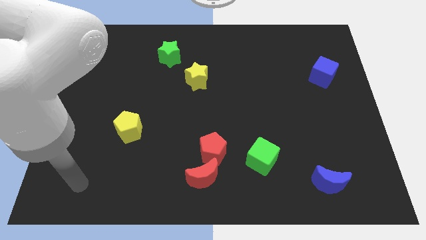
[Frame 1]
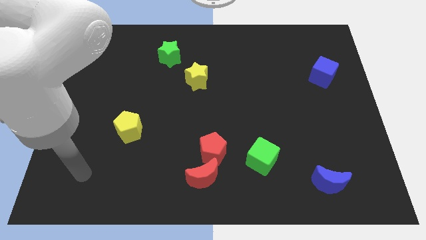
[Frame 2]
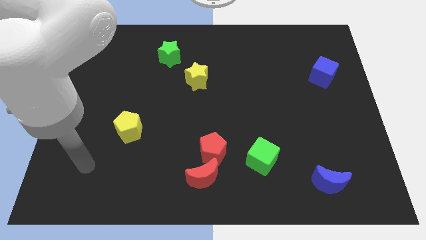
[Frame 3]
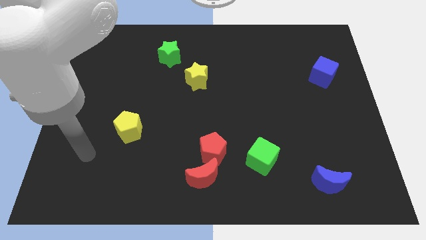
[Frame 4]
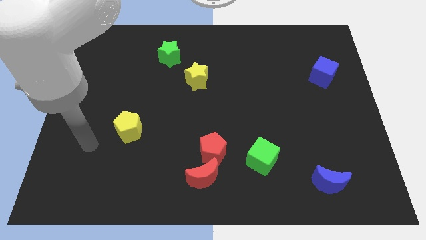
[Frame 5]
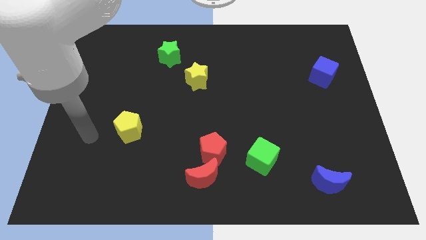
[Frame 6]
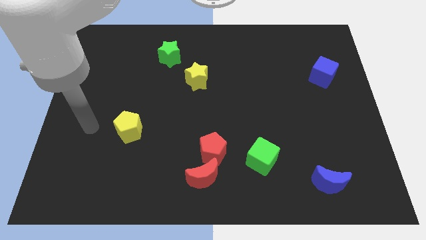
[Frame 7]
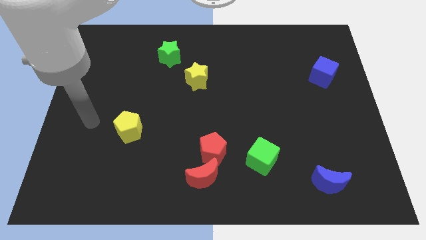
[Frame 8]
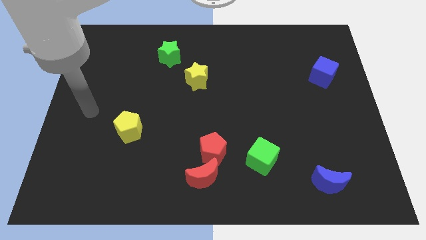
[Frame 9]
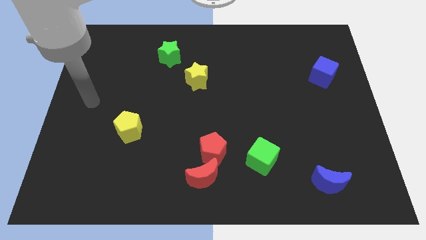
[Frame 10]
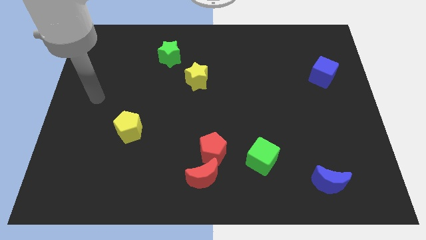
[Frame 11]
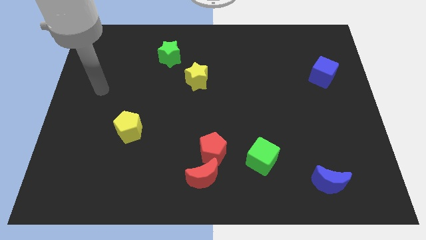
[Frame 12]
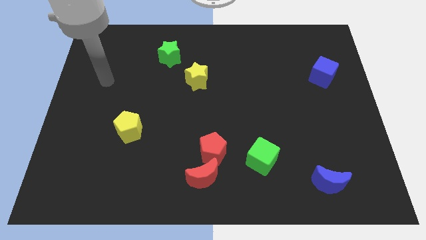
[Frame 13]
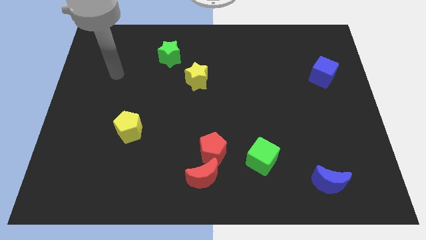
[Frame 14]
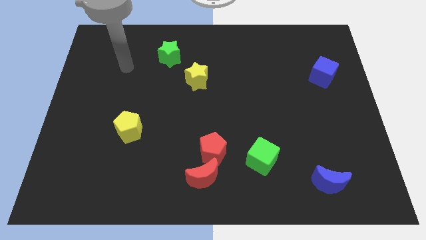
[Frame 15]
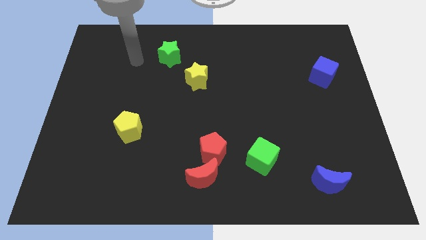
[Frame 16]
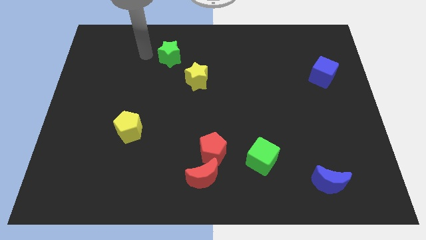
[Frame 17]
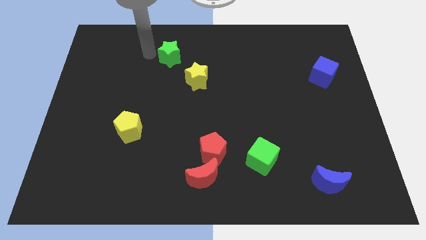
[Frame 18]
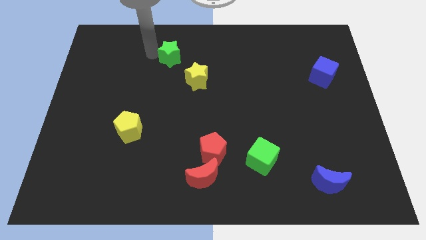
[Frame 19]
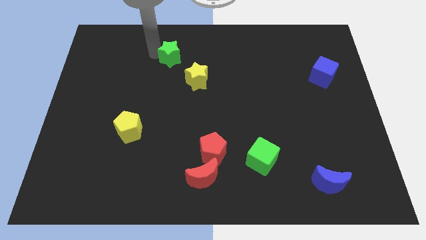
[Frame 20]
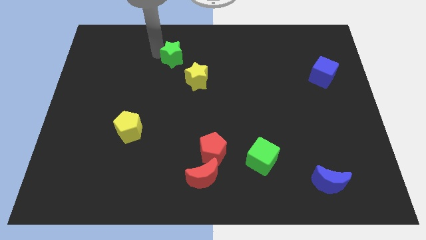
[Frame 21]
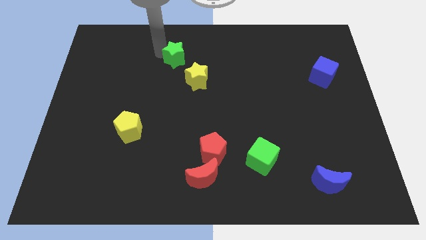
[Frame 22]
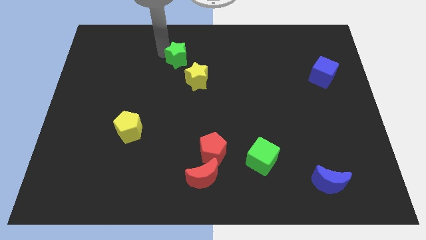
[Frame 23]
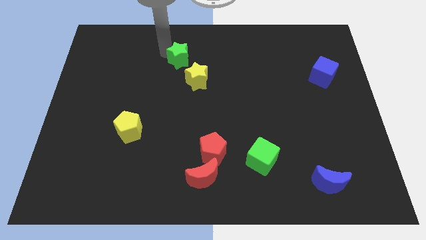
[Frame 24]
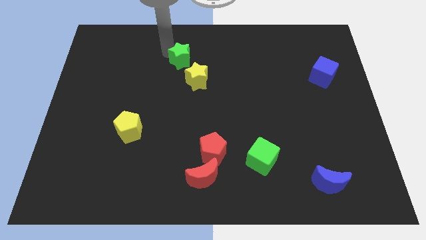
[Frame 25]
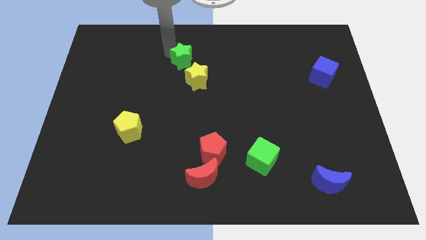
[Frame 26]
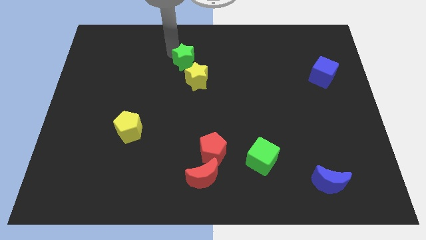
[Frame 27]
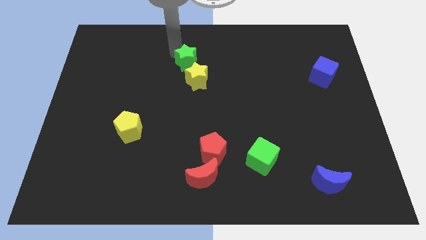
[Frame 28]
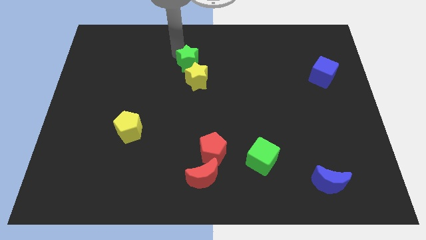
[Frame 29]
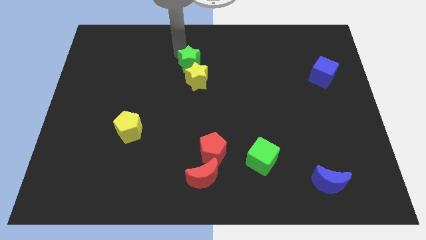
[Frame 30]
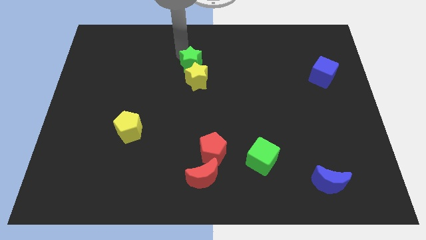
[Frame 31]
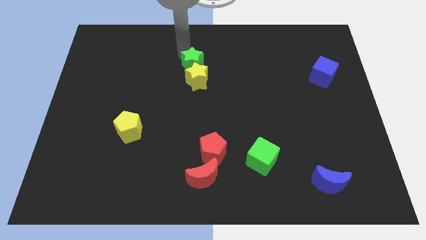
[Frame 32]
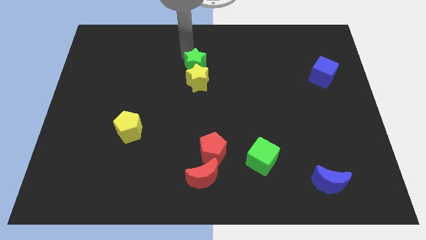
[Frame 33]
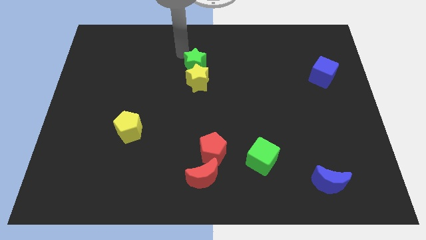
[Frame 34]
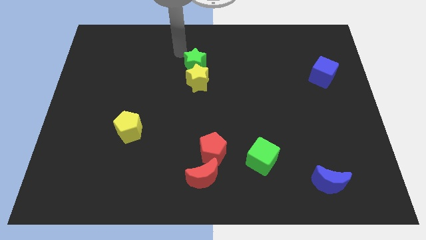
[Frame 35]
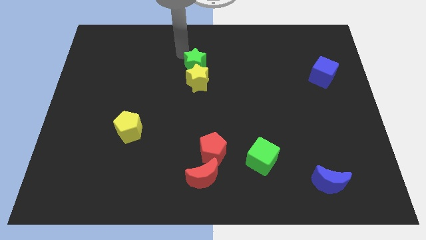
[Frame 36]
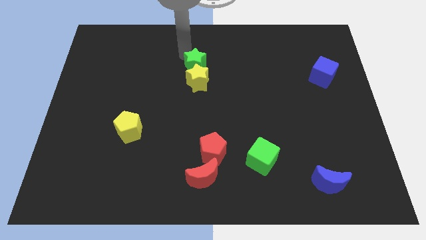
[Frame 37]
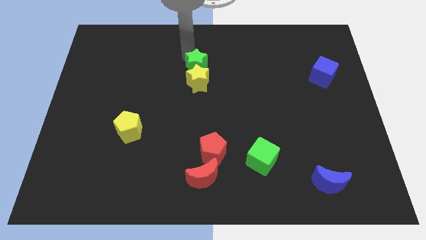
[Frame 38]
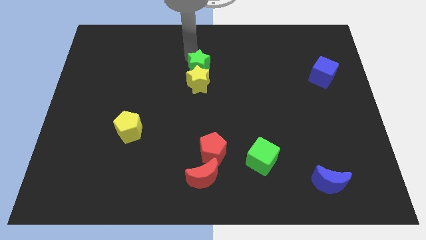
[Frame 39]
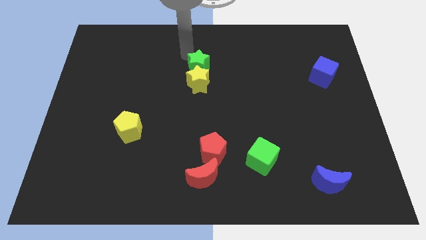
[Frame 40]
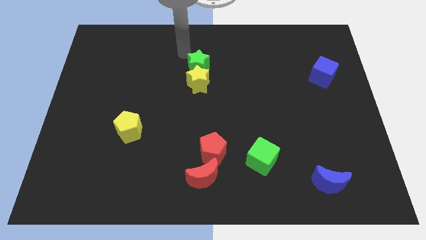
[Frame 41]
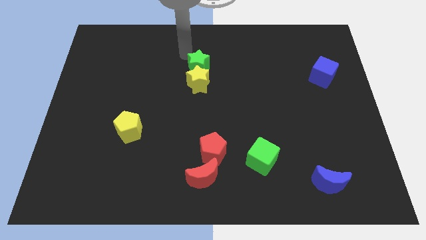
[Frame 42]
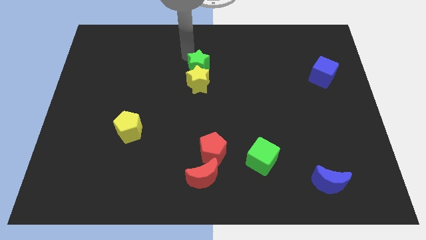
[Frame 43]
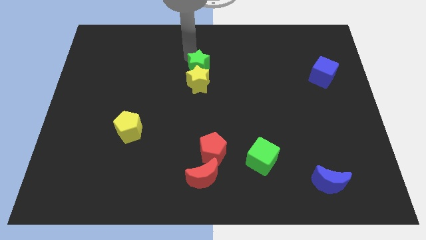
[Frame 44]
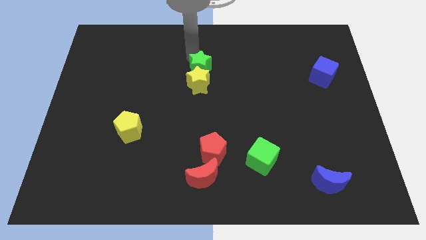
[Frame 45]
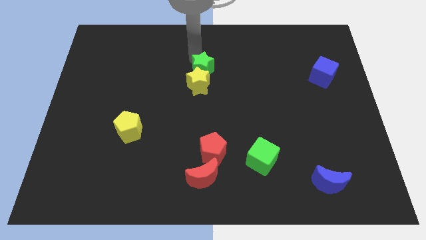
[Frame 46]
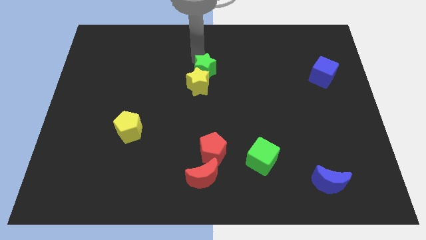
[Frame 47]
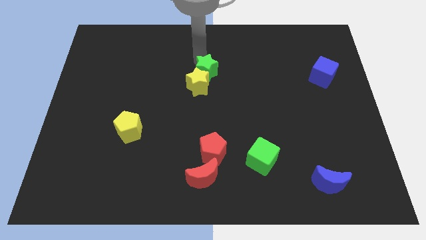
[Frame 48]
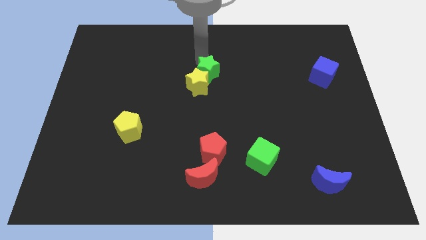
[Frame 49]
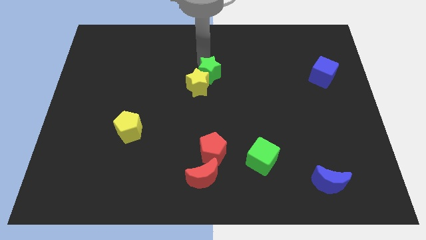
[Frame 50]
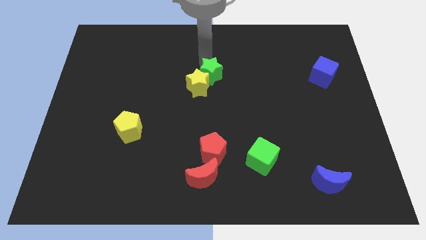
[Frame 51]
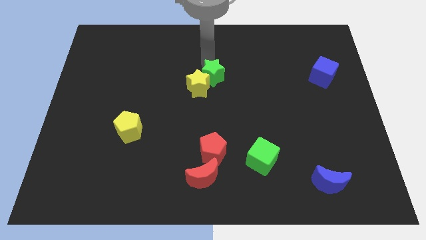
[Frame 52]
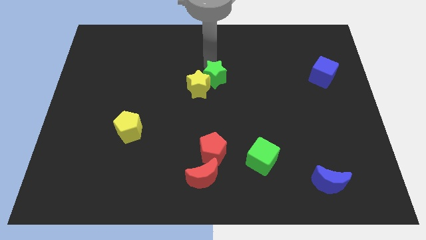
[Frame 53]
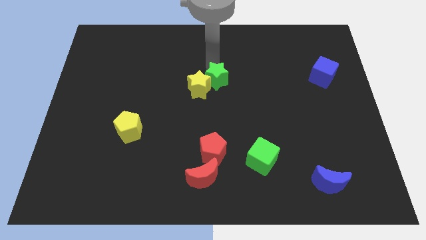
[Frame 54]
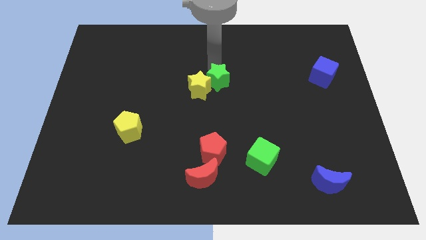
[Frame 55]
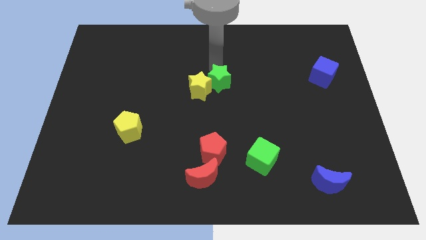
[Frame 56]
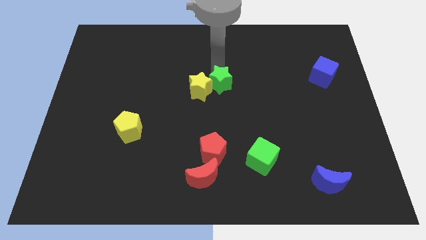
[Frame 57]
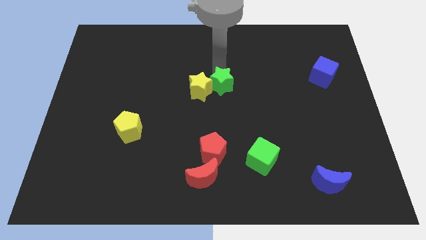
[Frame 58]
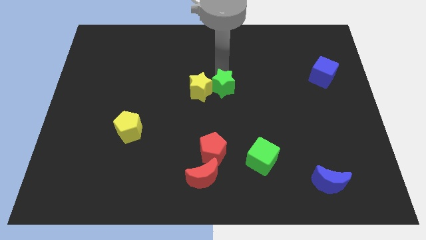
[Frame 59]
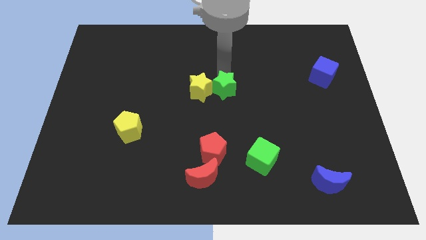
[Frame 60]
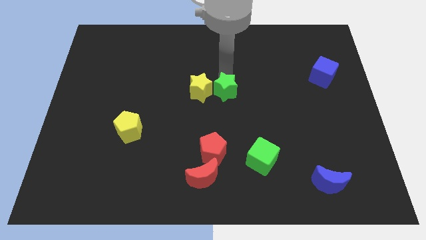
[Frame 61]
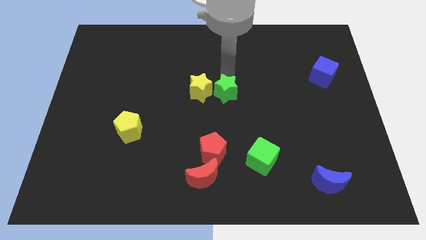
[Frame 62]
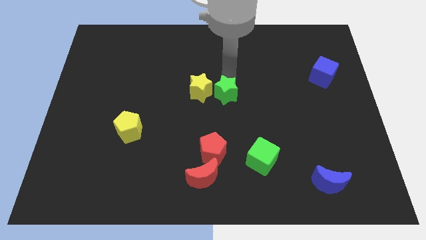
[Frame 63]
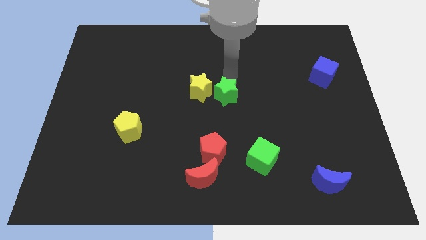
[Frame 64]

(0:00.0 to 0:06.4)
push the green star down and to the right

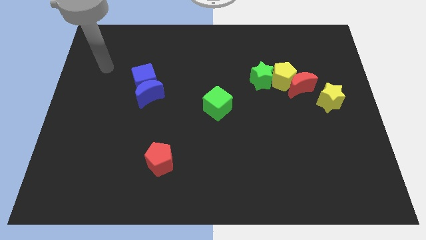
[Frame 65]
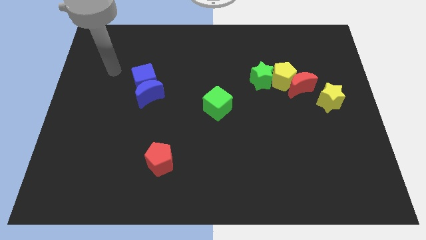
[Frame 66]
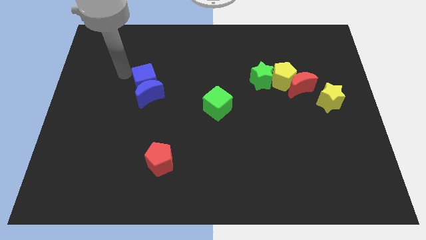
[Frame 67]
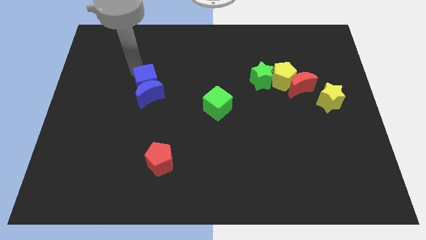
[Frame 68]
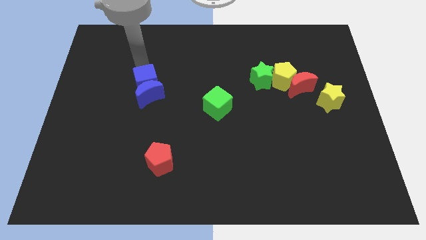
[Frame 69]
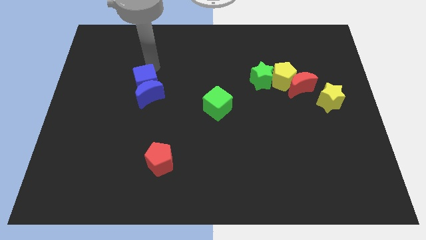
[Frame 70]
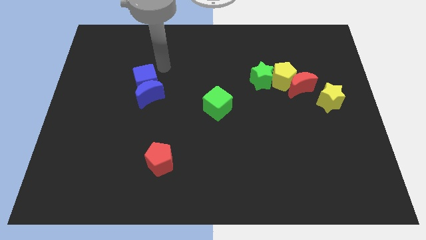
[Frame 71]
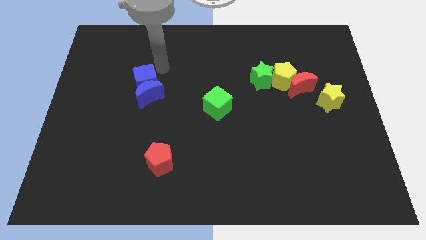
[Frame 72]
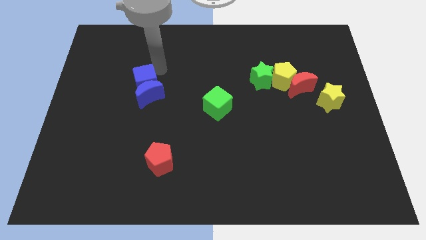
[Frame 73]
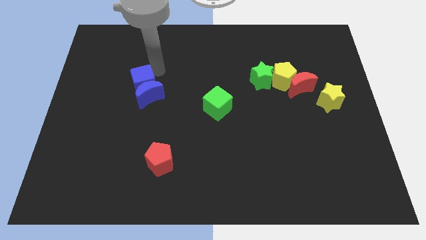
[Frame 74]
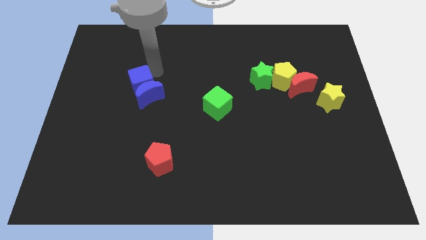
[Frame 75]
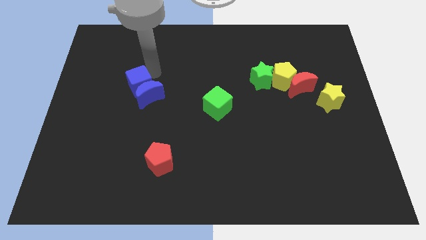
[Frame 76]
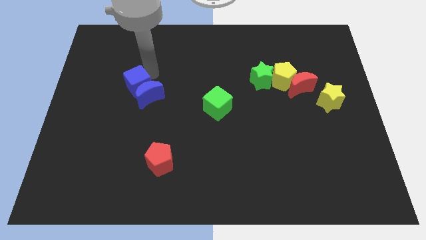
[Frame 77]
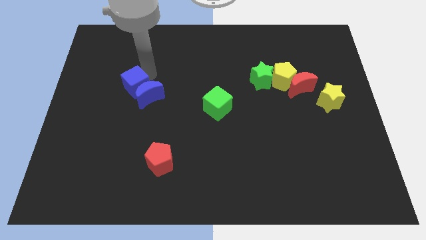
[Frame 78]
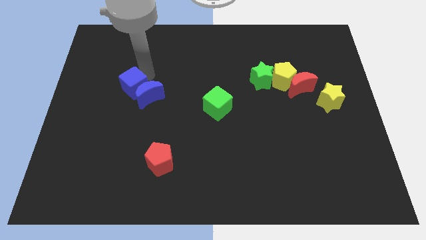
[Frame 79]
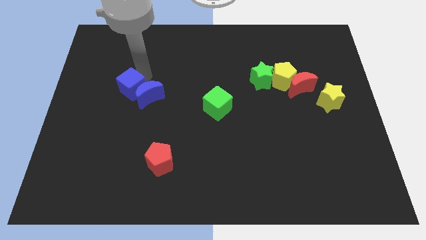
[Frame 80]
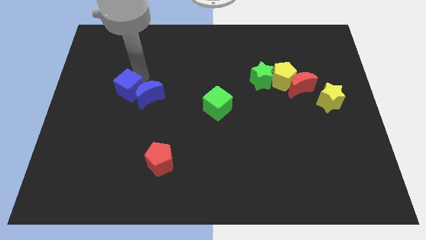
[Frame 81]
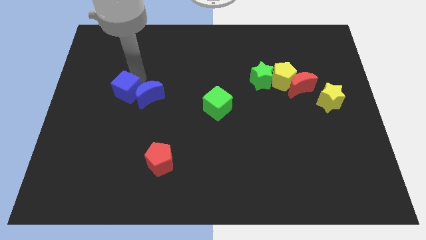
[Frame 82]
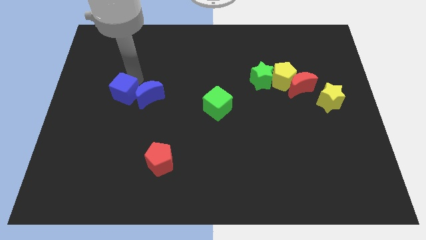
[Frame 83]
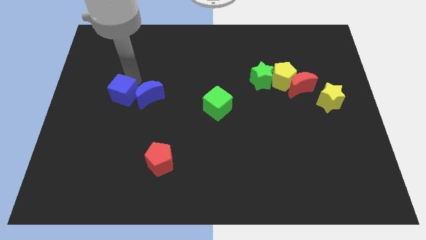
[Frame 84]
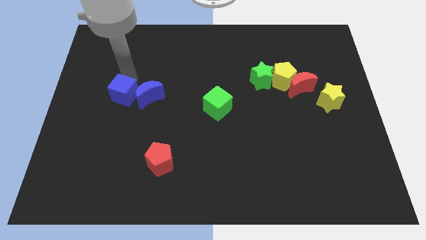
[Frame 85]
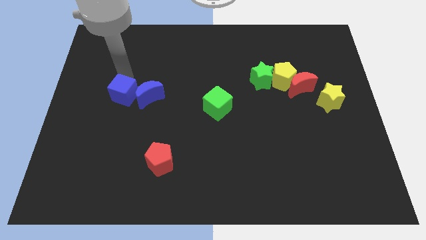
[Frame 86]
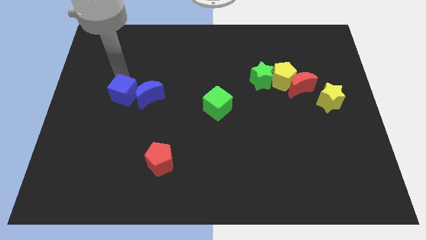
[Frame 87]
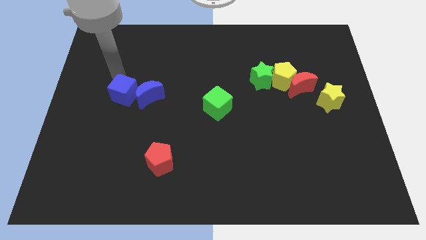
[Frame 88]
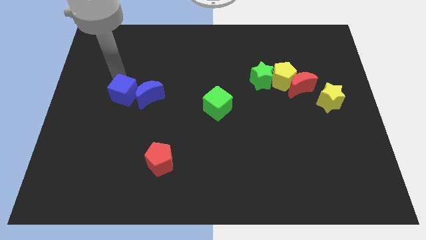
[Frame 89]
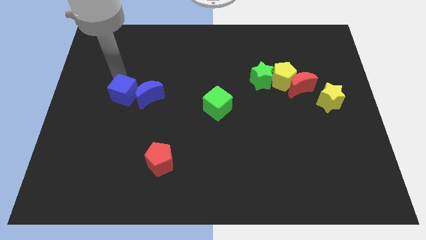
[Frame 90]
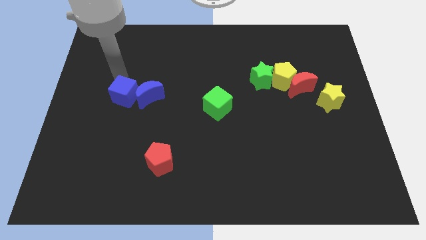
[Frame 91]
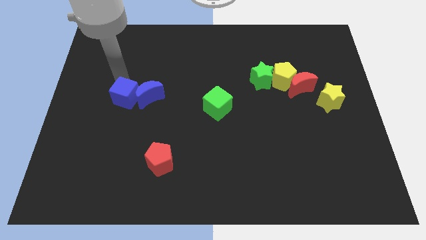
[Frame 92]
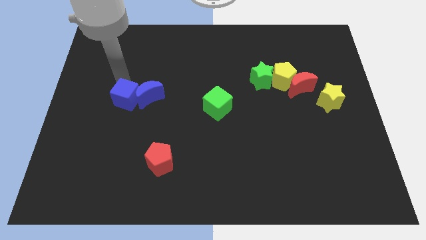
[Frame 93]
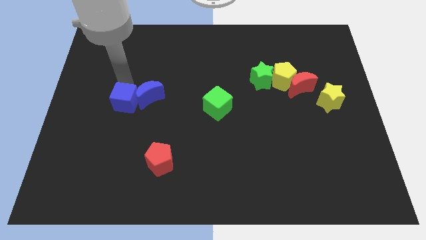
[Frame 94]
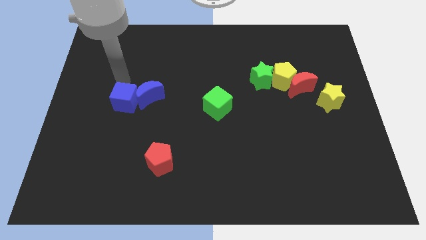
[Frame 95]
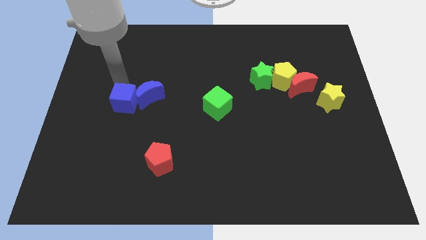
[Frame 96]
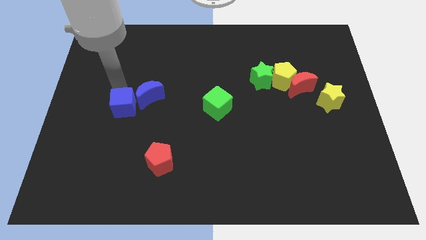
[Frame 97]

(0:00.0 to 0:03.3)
slide the blue cube a little bit downwards
